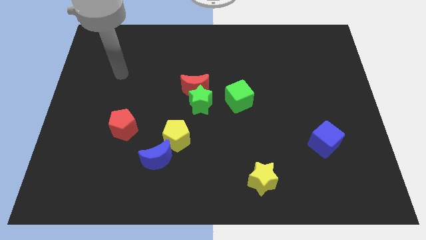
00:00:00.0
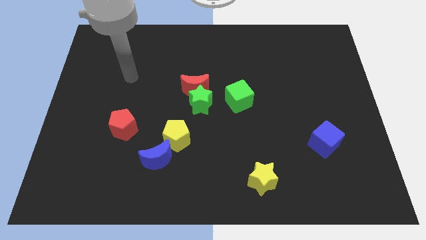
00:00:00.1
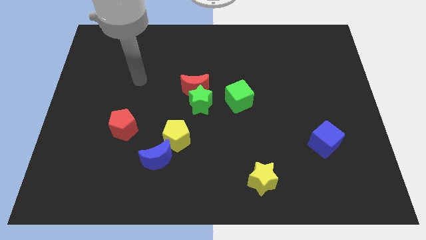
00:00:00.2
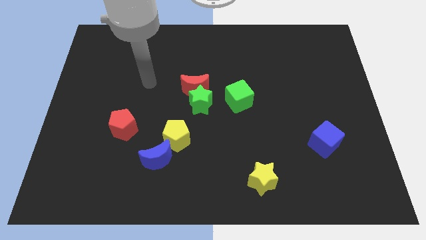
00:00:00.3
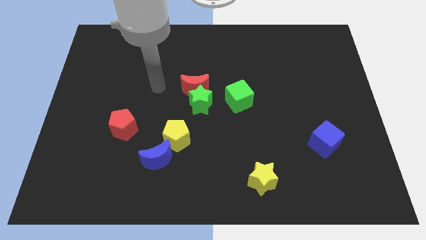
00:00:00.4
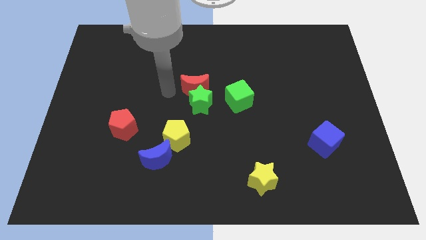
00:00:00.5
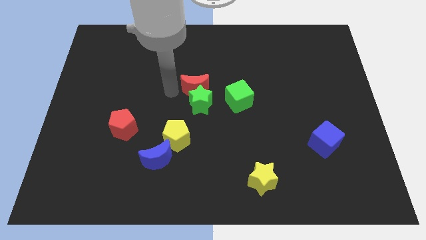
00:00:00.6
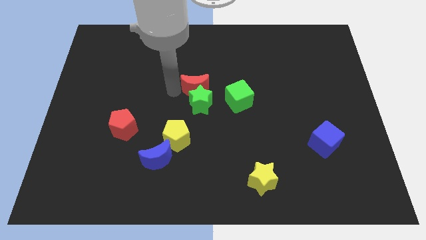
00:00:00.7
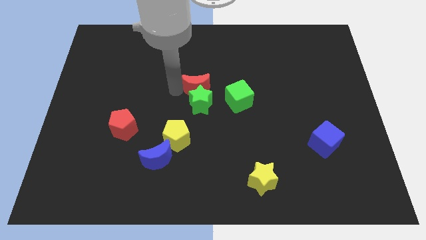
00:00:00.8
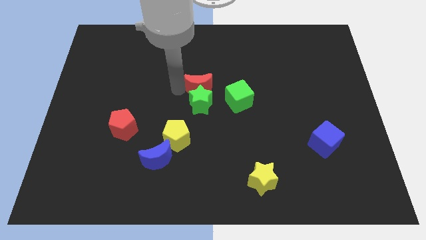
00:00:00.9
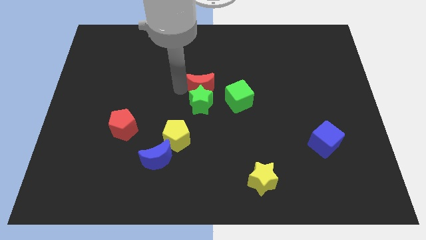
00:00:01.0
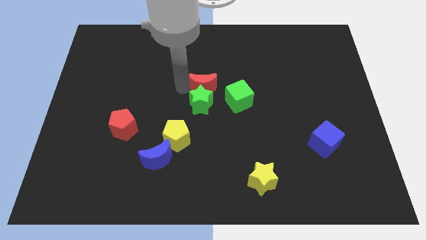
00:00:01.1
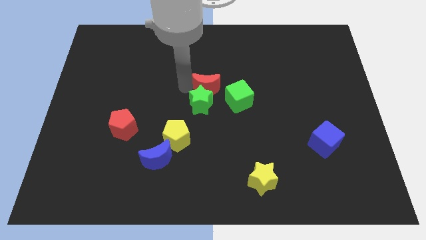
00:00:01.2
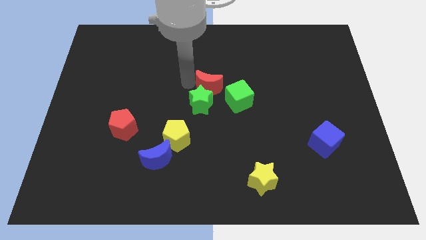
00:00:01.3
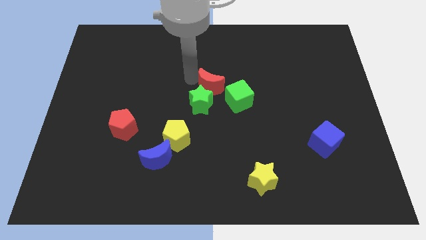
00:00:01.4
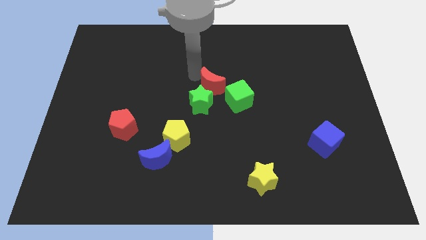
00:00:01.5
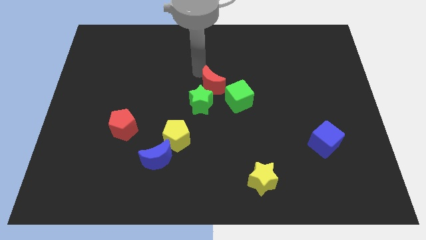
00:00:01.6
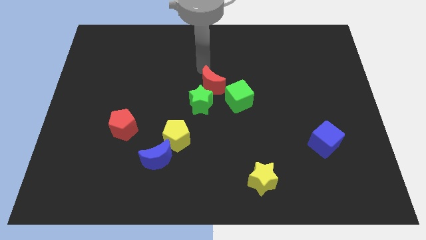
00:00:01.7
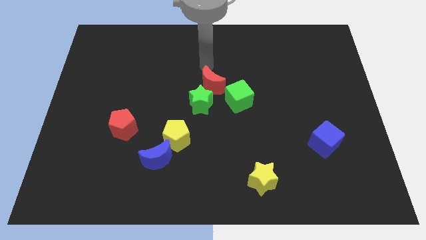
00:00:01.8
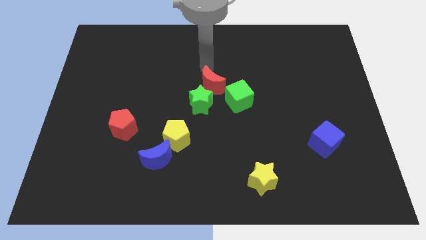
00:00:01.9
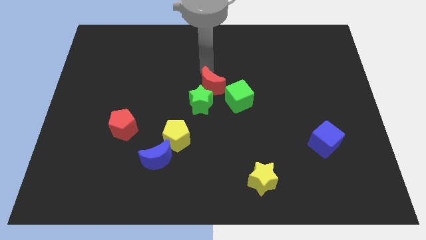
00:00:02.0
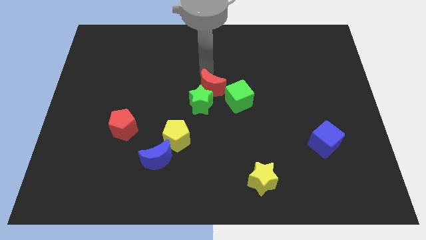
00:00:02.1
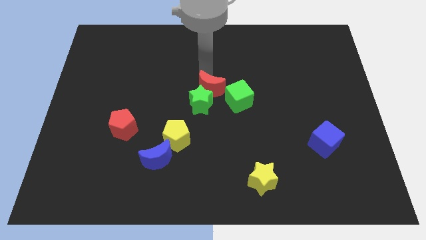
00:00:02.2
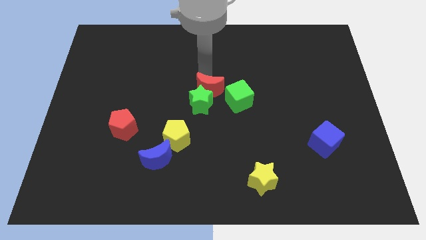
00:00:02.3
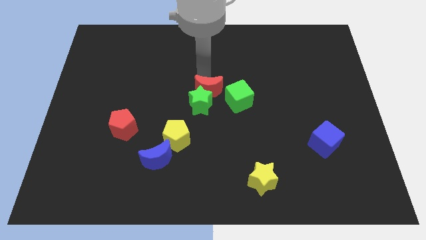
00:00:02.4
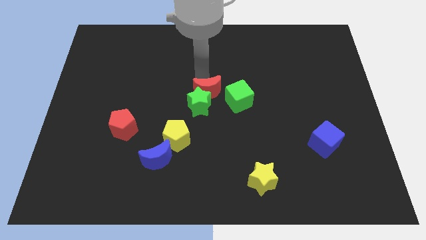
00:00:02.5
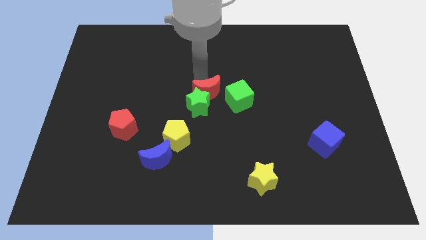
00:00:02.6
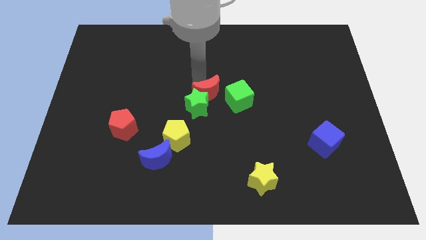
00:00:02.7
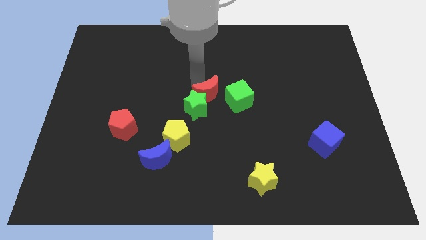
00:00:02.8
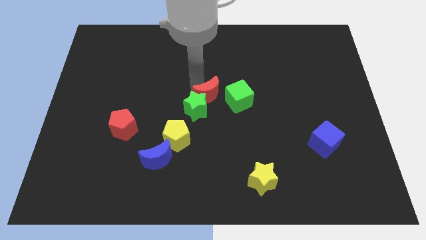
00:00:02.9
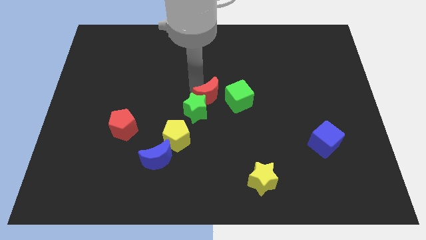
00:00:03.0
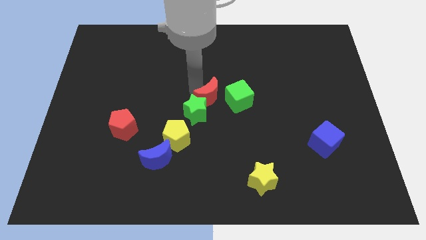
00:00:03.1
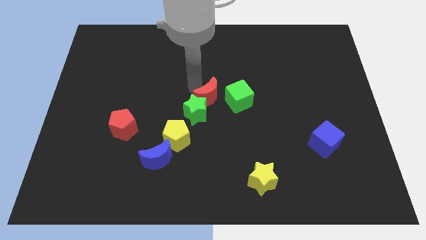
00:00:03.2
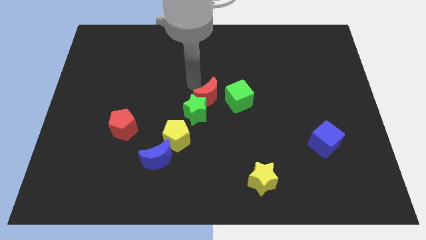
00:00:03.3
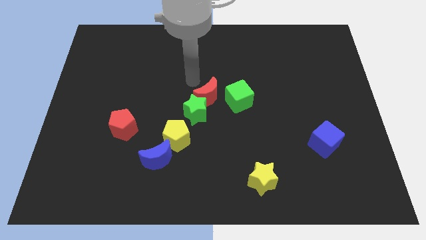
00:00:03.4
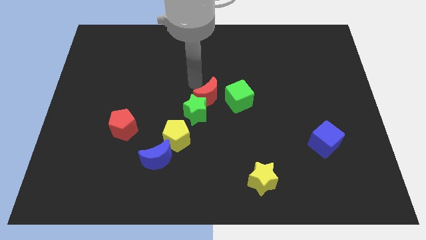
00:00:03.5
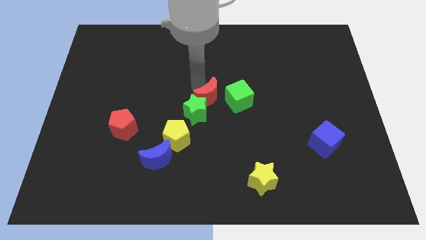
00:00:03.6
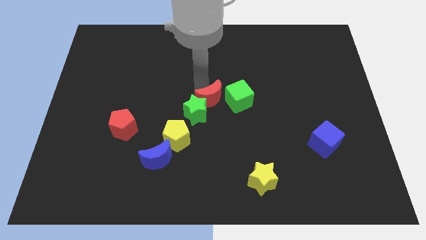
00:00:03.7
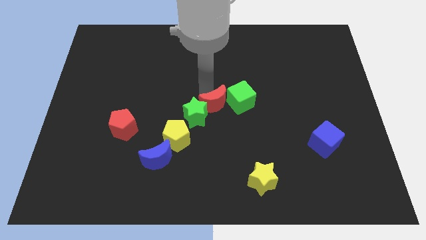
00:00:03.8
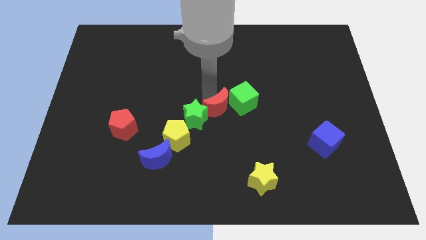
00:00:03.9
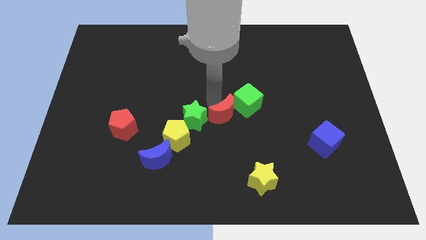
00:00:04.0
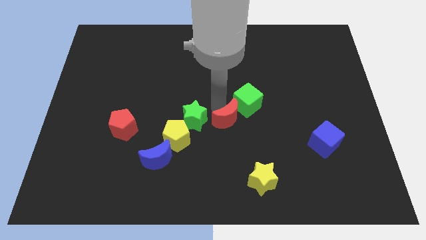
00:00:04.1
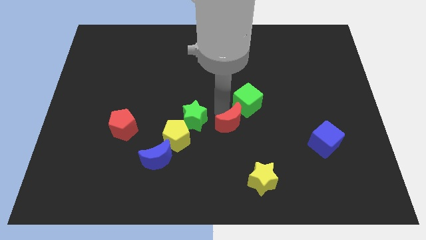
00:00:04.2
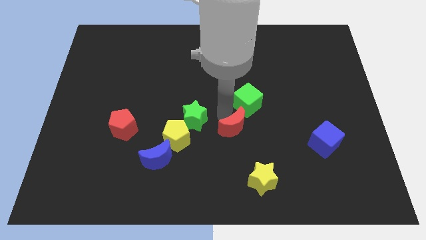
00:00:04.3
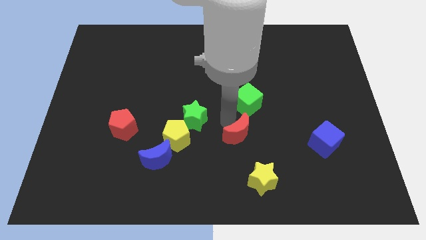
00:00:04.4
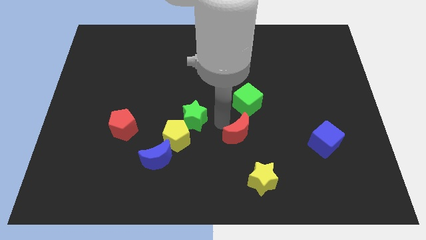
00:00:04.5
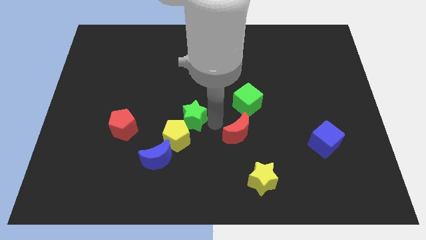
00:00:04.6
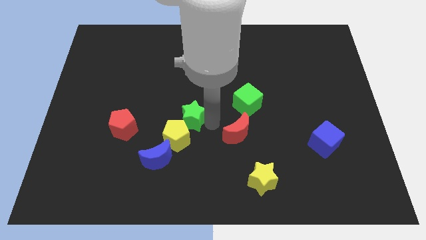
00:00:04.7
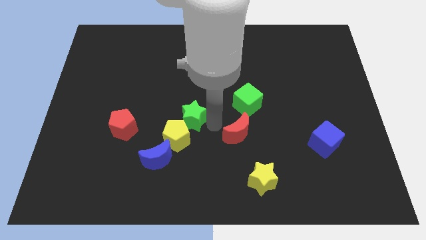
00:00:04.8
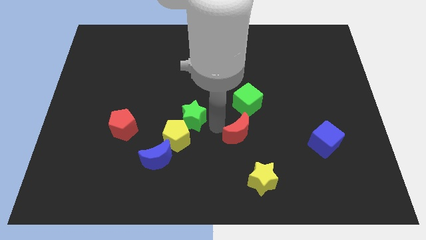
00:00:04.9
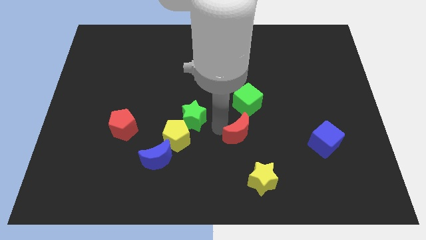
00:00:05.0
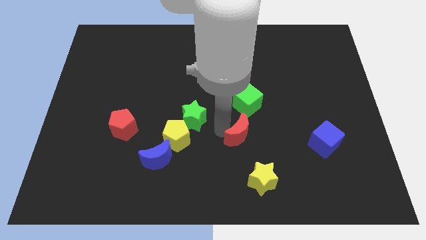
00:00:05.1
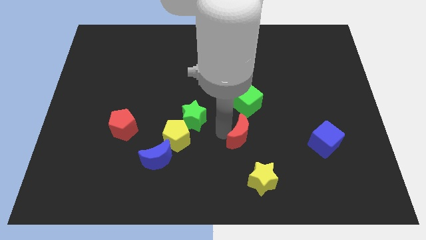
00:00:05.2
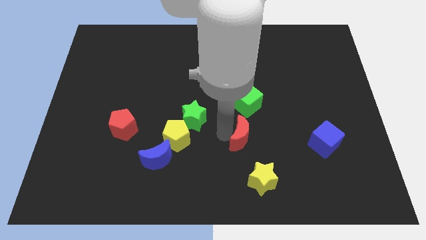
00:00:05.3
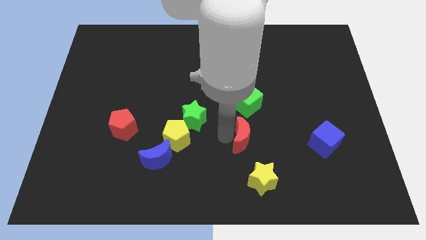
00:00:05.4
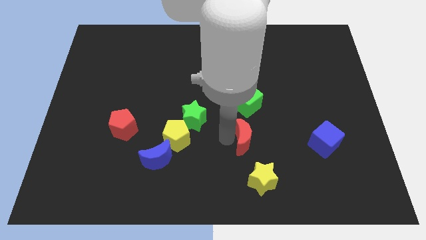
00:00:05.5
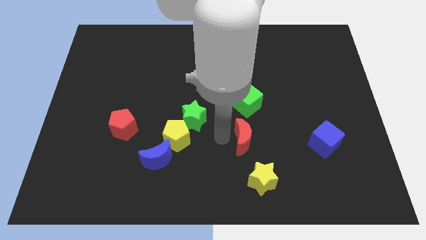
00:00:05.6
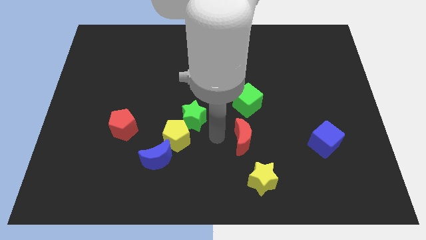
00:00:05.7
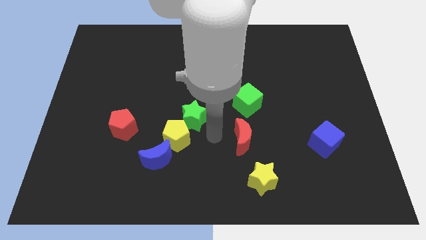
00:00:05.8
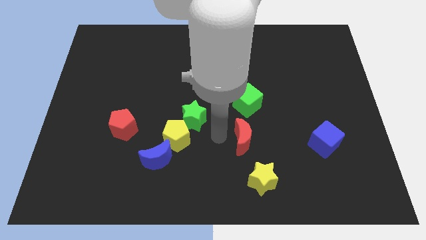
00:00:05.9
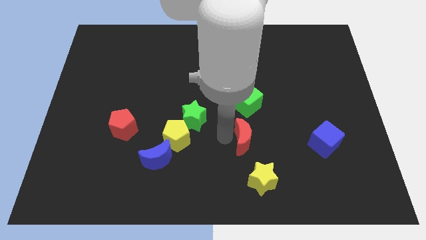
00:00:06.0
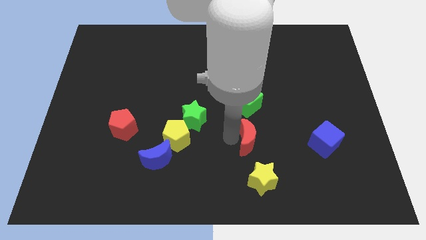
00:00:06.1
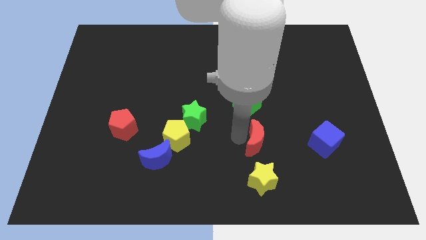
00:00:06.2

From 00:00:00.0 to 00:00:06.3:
move the red moon down and to the right

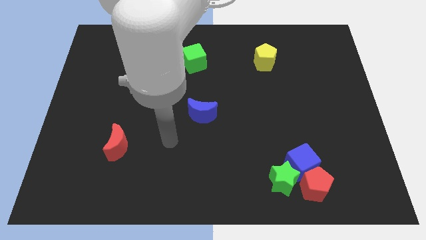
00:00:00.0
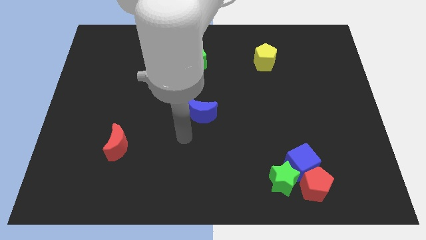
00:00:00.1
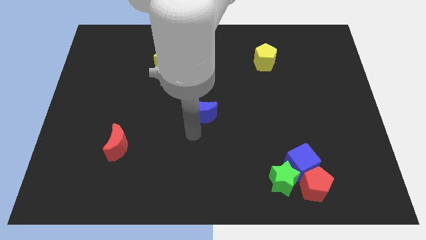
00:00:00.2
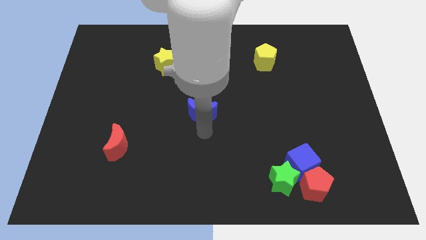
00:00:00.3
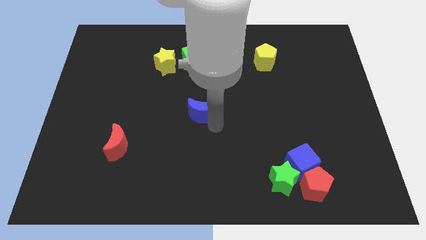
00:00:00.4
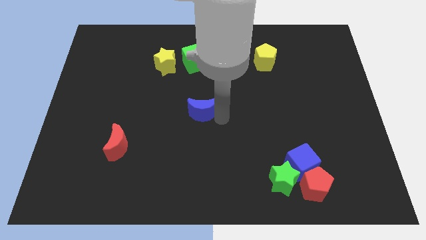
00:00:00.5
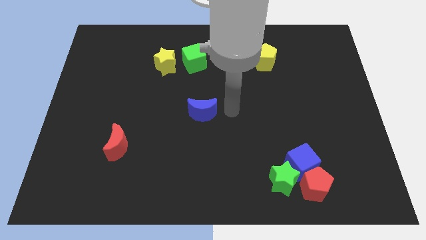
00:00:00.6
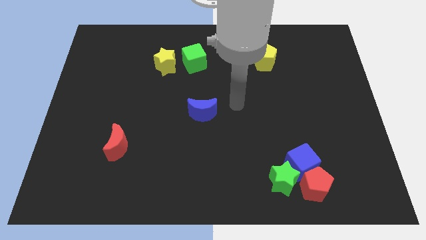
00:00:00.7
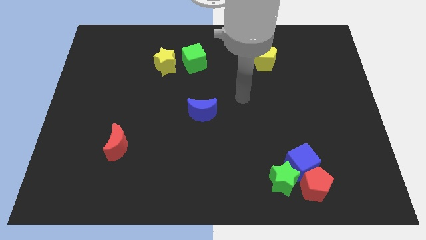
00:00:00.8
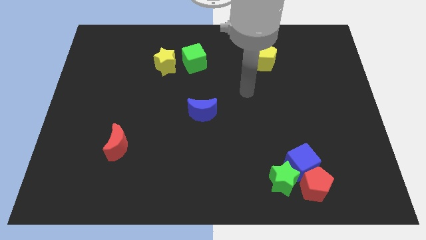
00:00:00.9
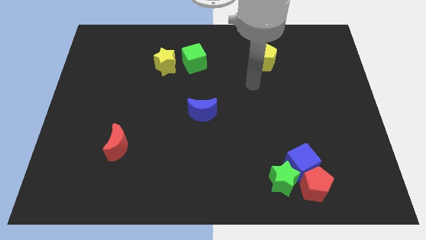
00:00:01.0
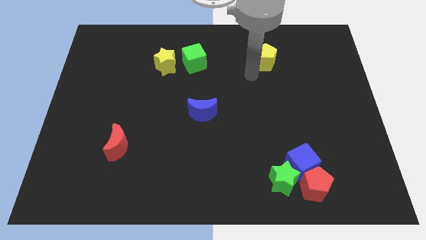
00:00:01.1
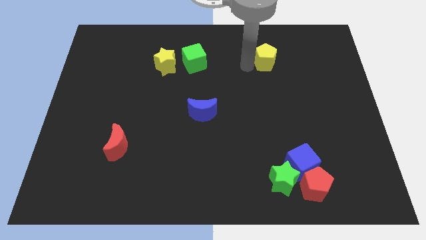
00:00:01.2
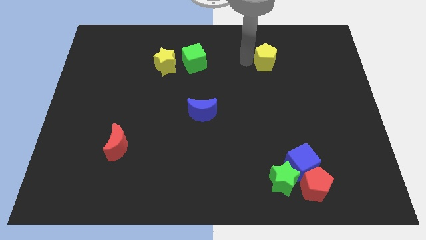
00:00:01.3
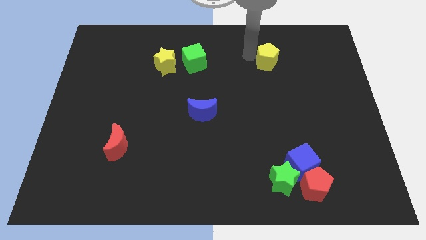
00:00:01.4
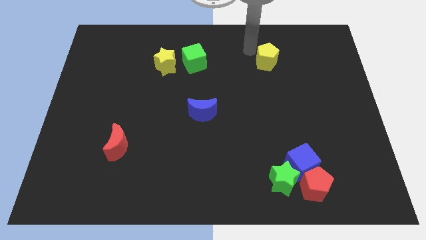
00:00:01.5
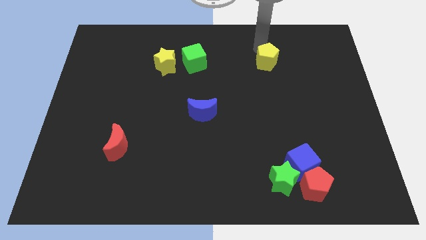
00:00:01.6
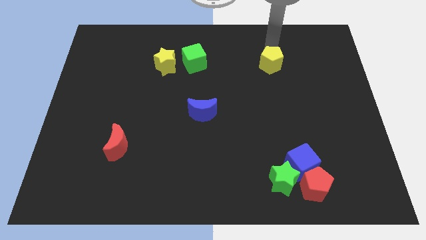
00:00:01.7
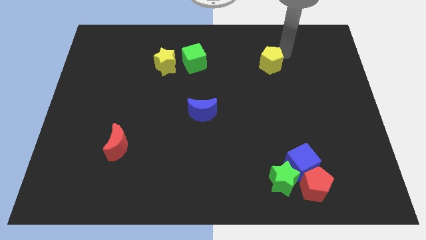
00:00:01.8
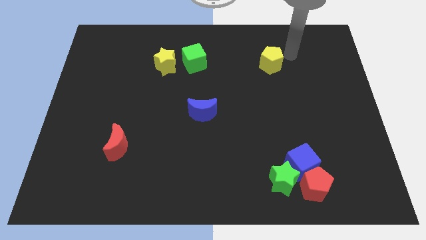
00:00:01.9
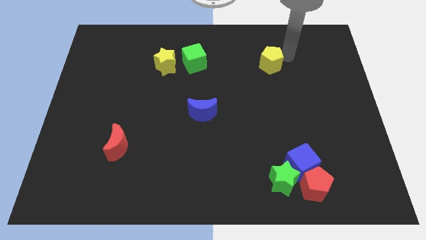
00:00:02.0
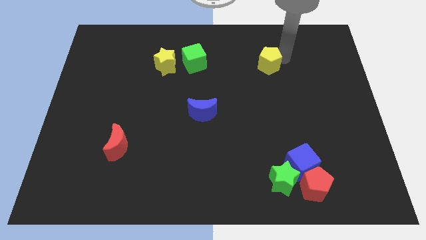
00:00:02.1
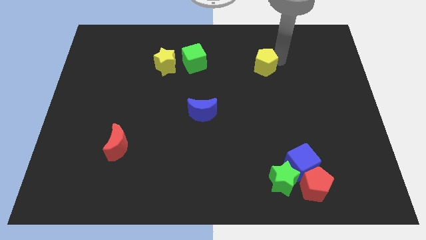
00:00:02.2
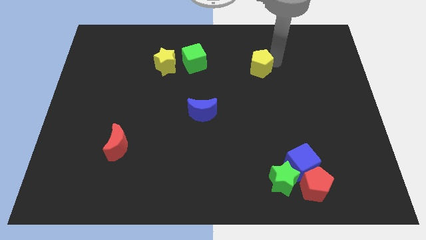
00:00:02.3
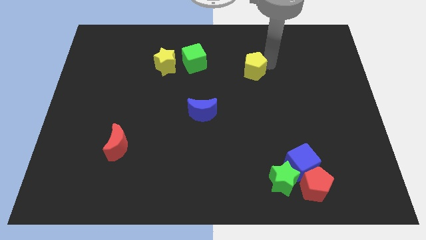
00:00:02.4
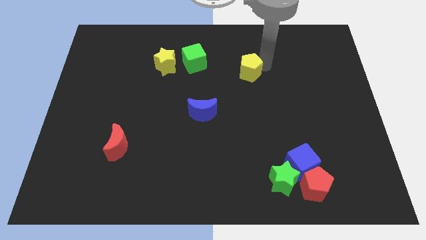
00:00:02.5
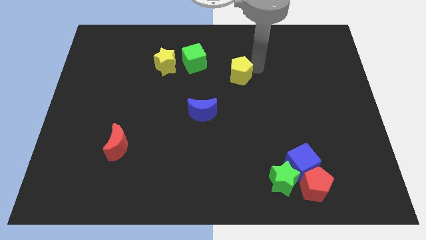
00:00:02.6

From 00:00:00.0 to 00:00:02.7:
slide the yellow pentagon down and left a bit
